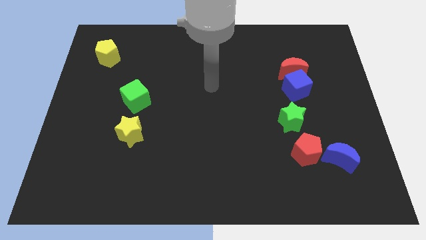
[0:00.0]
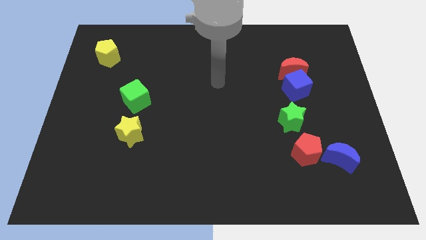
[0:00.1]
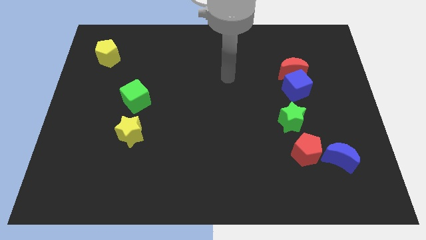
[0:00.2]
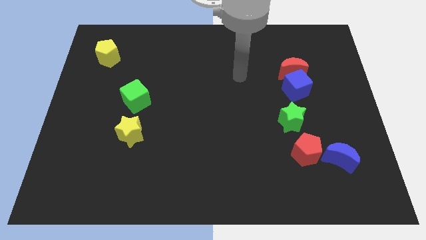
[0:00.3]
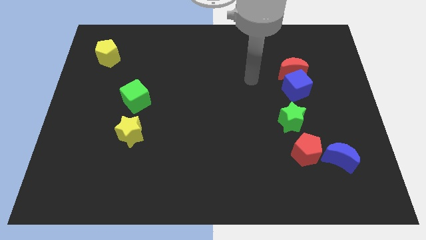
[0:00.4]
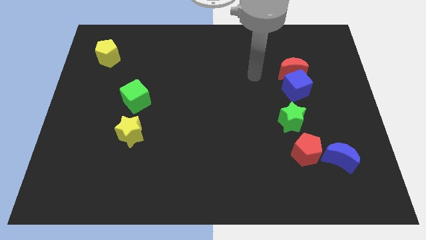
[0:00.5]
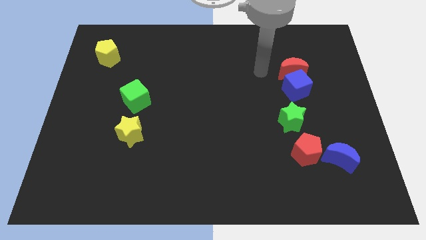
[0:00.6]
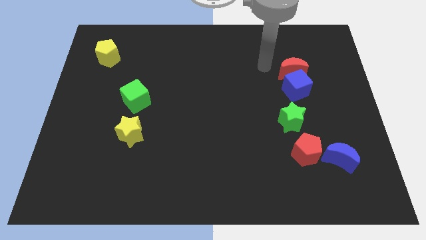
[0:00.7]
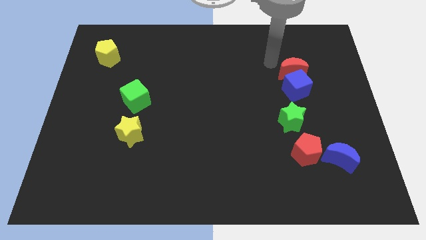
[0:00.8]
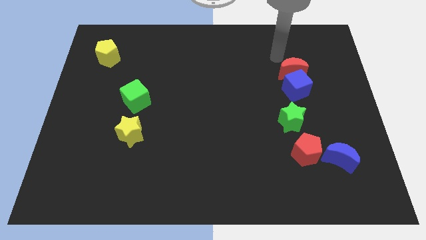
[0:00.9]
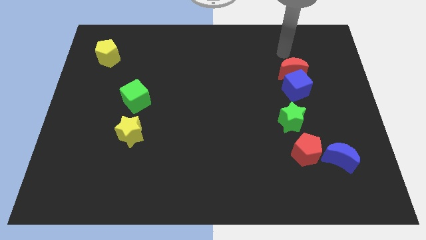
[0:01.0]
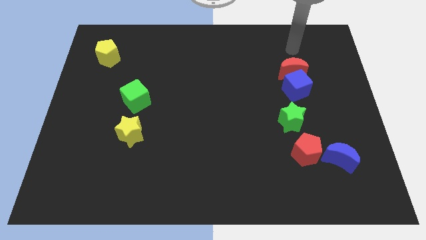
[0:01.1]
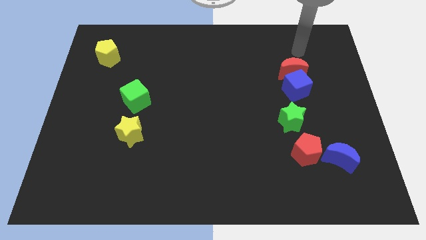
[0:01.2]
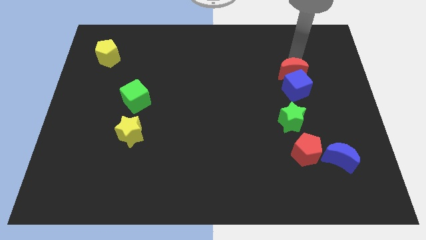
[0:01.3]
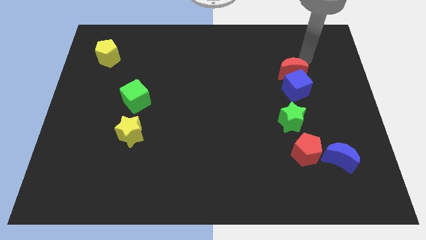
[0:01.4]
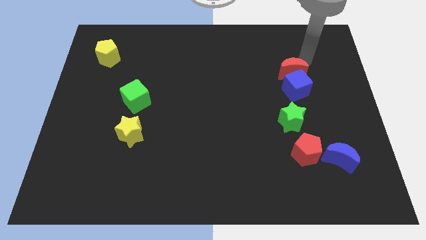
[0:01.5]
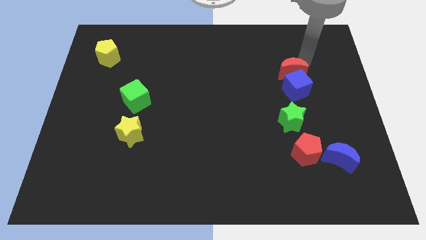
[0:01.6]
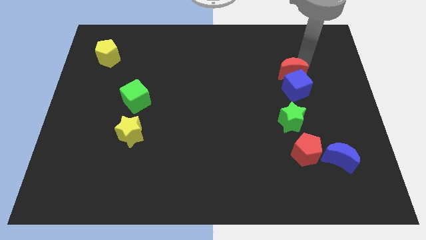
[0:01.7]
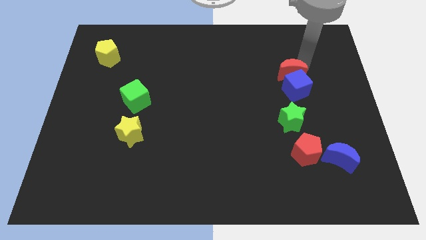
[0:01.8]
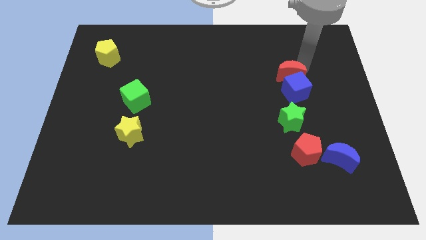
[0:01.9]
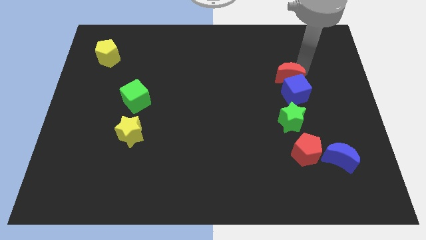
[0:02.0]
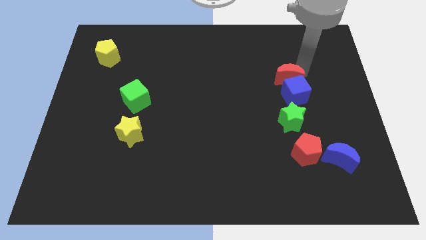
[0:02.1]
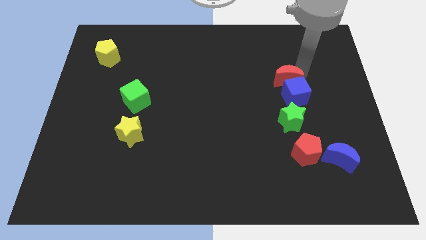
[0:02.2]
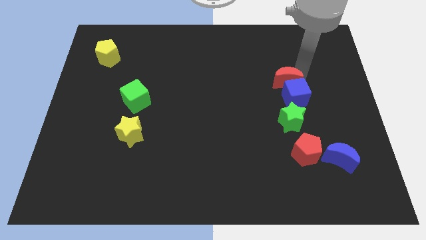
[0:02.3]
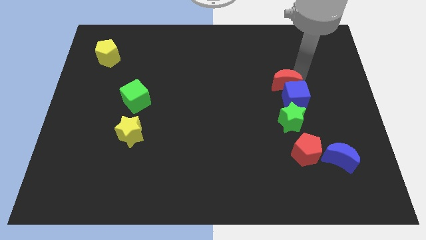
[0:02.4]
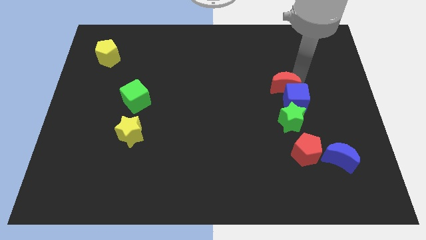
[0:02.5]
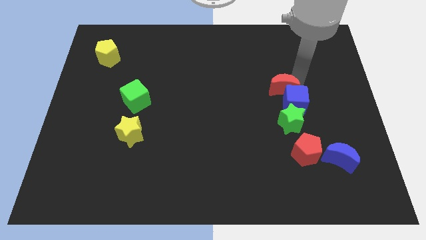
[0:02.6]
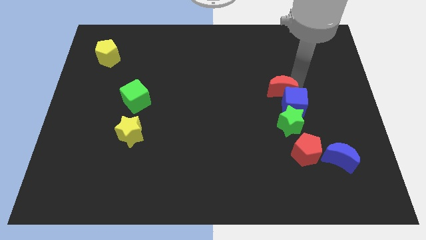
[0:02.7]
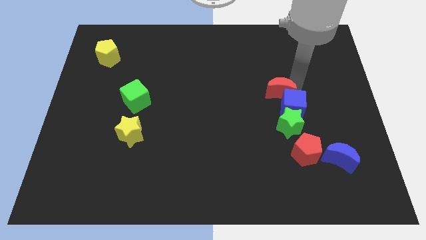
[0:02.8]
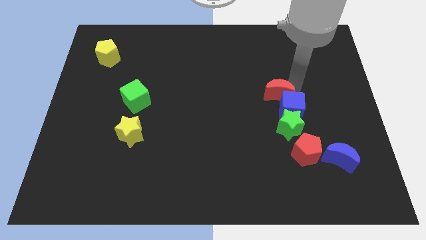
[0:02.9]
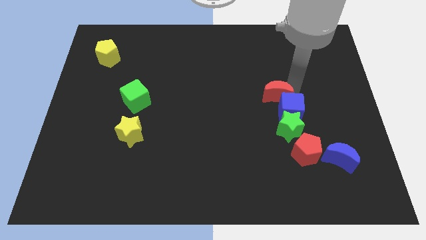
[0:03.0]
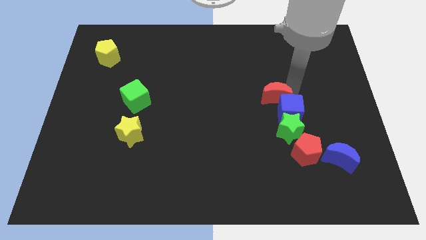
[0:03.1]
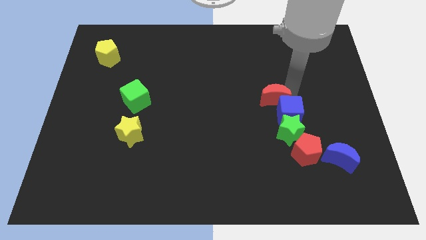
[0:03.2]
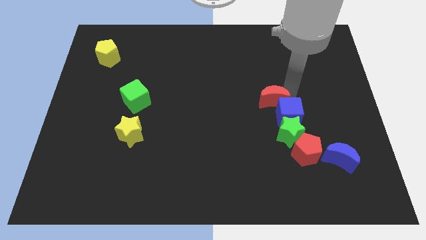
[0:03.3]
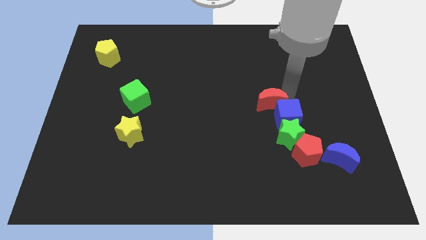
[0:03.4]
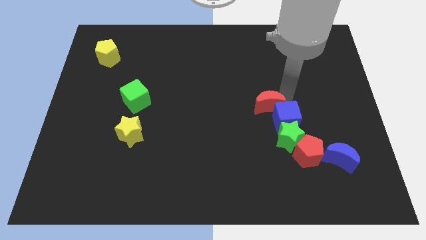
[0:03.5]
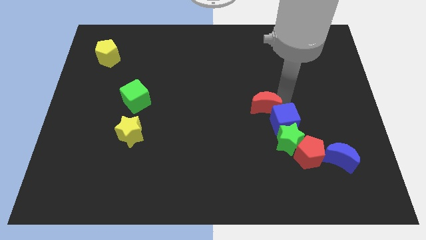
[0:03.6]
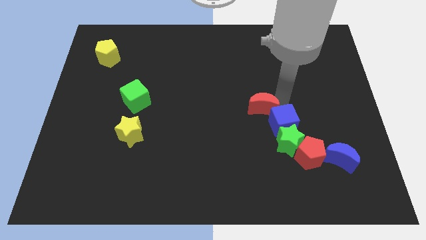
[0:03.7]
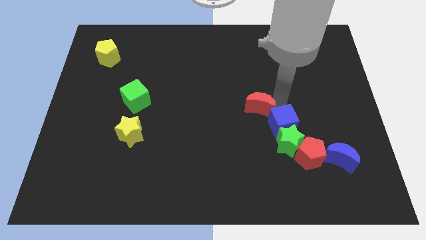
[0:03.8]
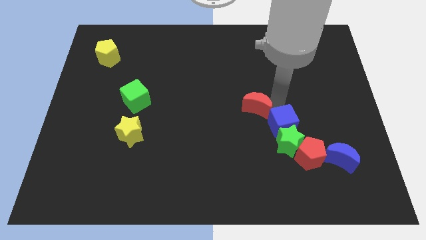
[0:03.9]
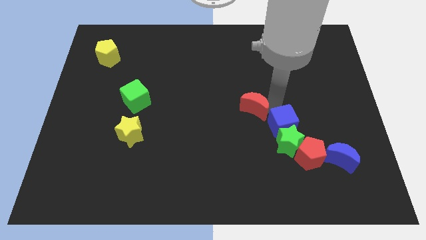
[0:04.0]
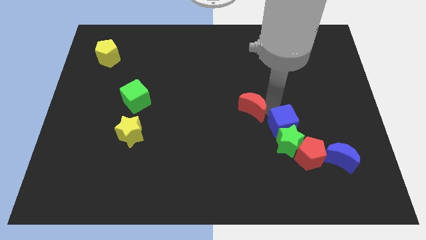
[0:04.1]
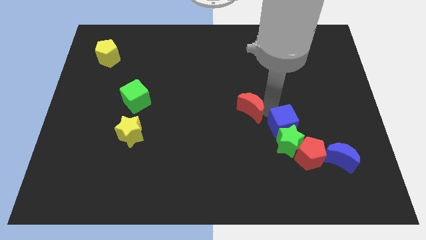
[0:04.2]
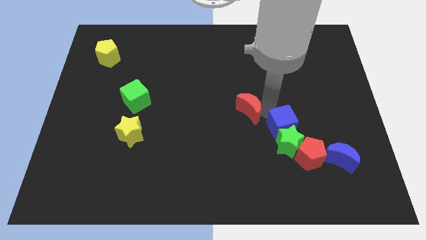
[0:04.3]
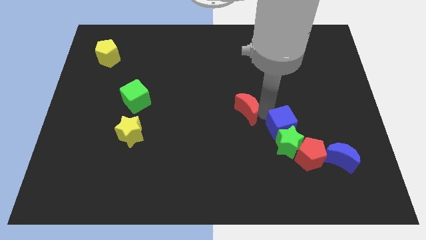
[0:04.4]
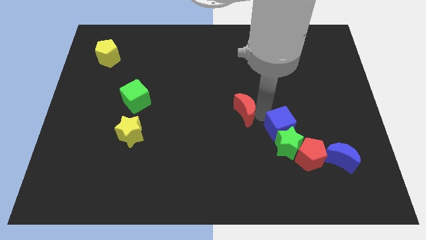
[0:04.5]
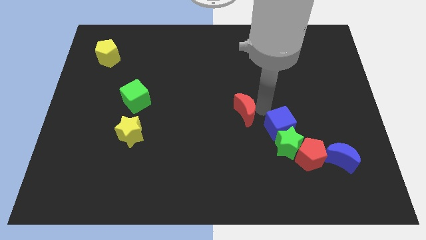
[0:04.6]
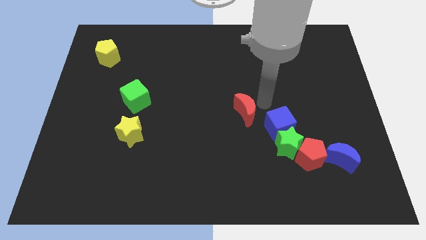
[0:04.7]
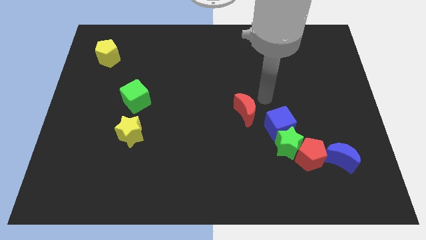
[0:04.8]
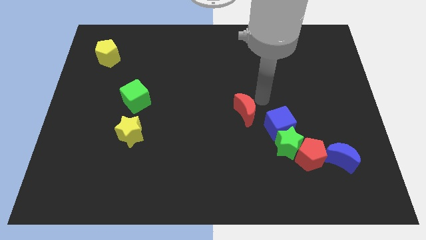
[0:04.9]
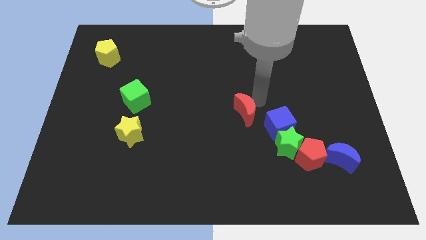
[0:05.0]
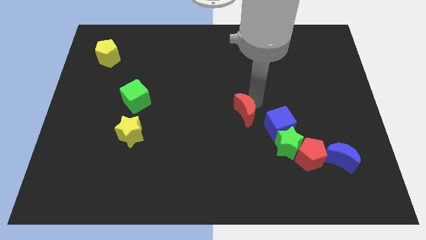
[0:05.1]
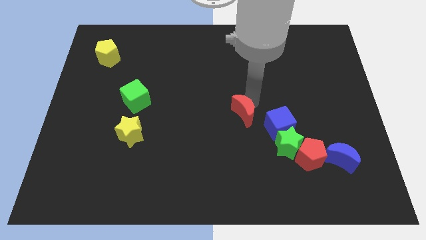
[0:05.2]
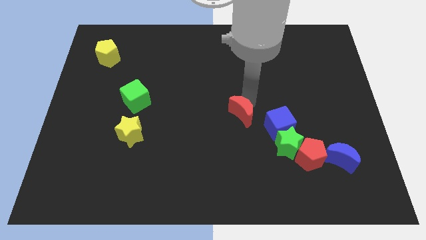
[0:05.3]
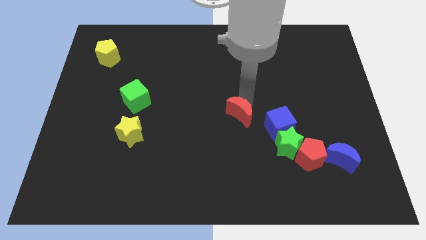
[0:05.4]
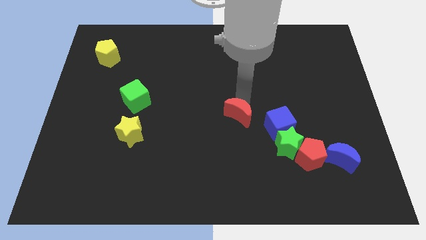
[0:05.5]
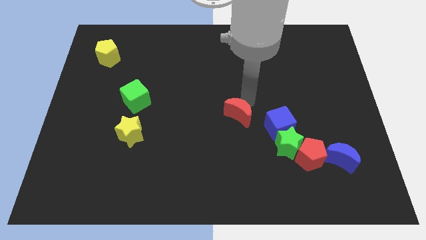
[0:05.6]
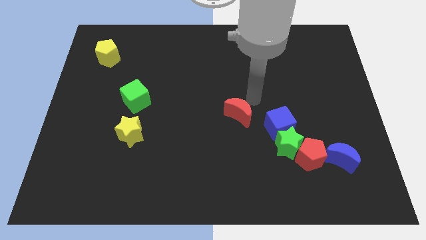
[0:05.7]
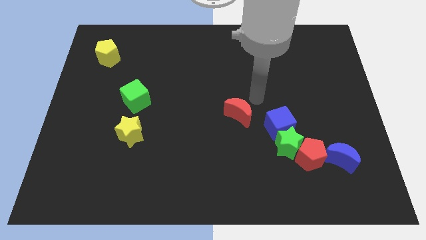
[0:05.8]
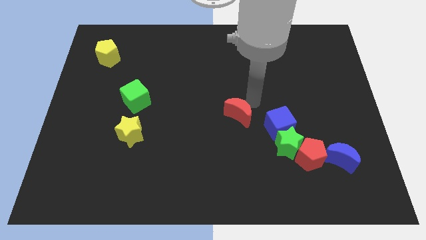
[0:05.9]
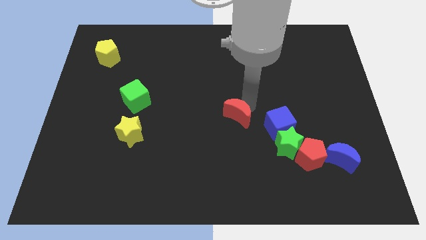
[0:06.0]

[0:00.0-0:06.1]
move the red moon diagonally down and to the left

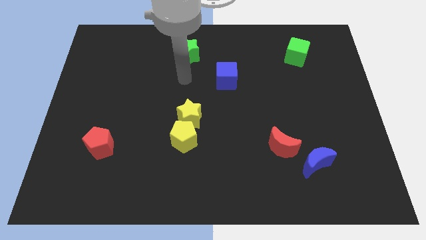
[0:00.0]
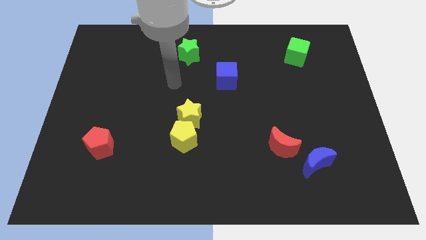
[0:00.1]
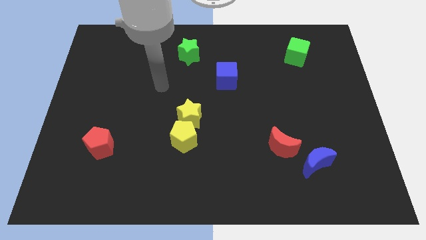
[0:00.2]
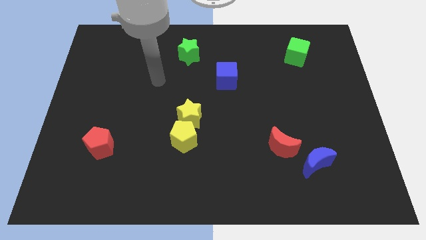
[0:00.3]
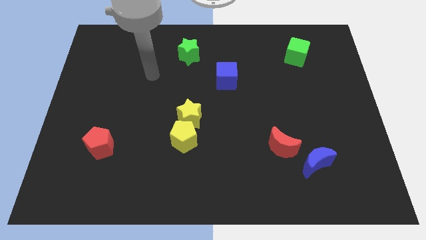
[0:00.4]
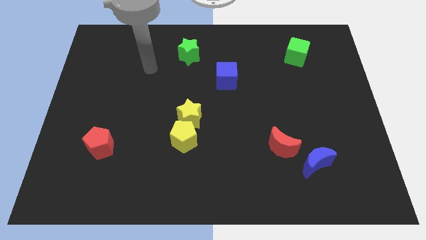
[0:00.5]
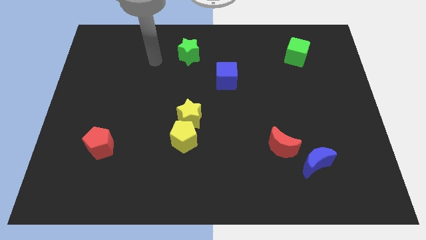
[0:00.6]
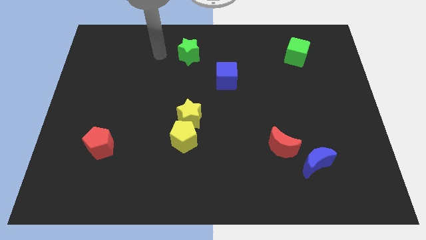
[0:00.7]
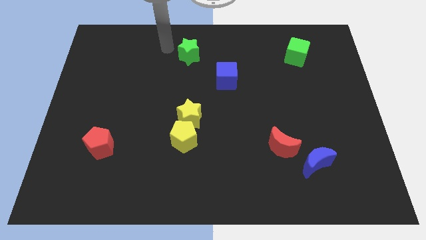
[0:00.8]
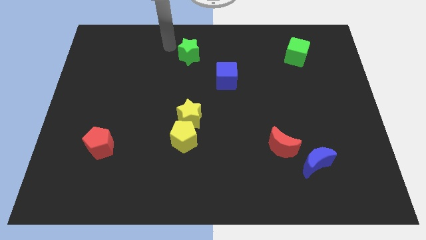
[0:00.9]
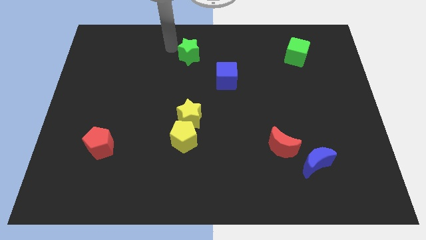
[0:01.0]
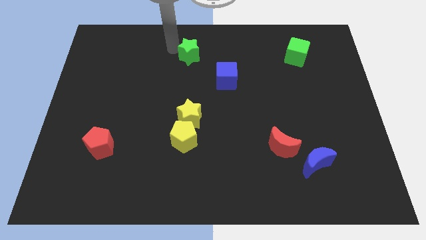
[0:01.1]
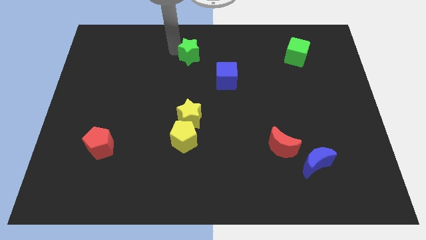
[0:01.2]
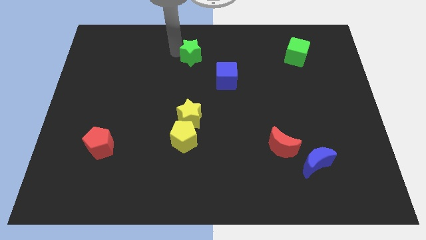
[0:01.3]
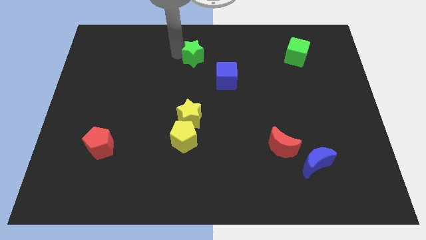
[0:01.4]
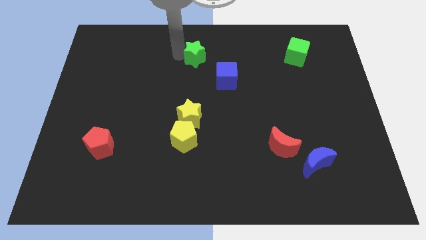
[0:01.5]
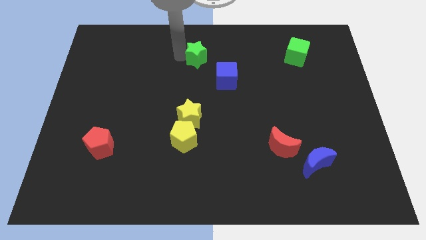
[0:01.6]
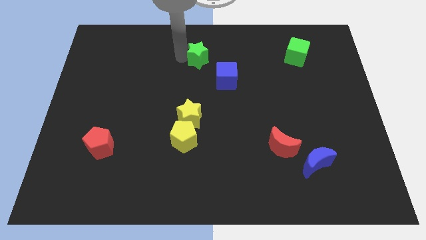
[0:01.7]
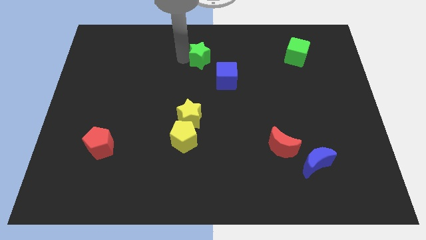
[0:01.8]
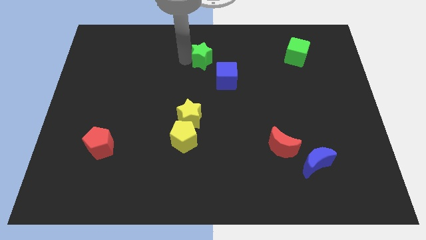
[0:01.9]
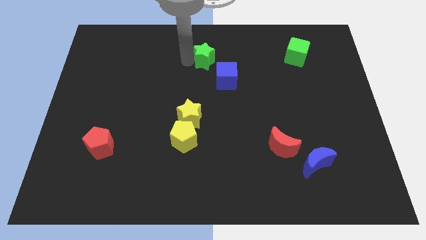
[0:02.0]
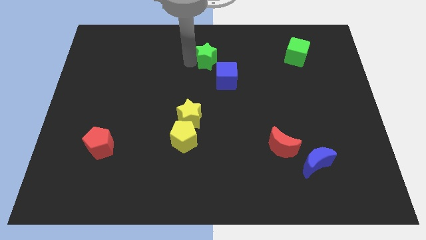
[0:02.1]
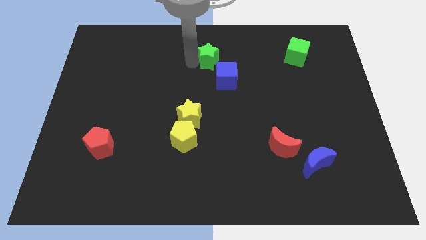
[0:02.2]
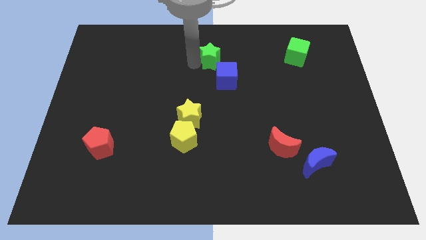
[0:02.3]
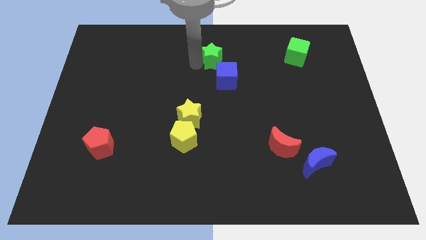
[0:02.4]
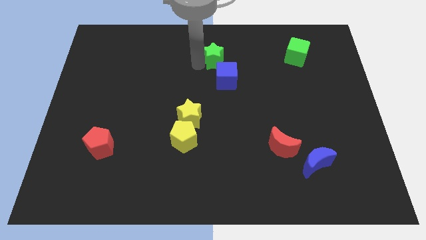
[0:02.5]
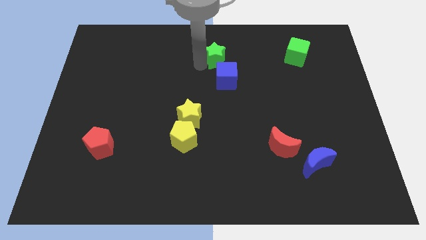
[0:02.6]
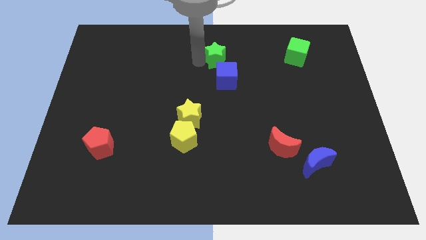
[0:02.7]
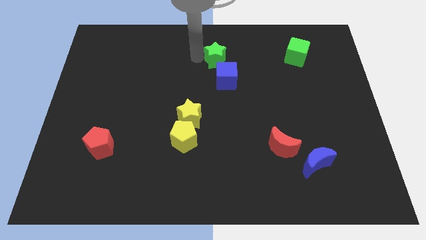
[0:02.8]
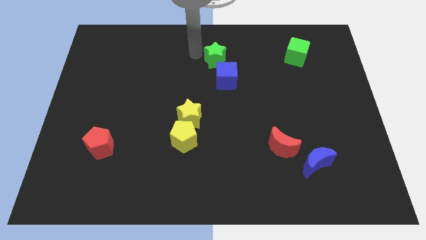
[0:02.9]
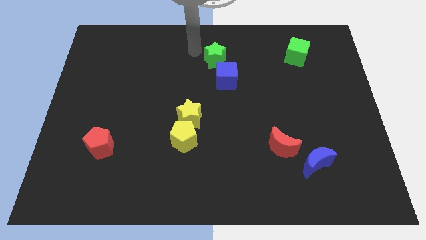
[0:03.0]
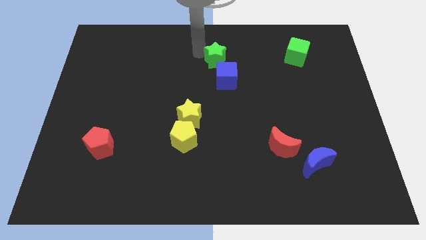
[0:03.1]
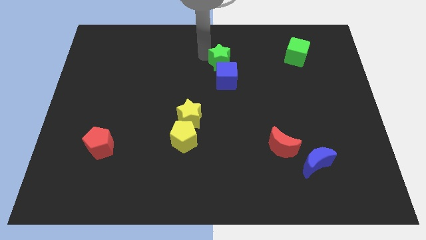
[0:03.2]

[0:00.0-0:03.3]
slide the green star a little bit down and right
